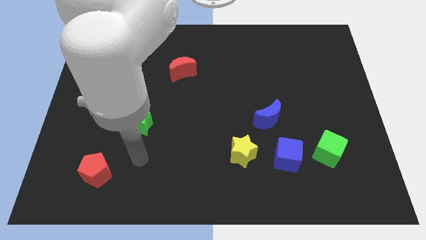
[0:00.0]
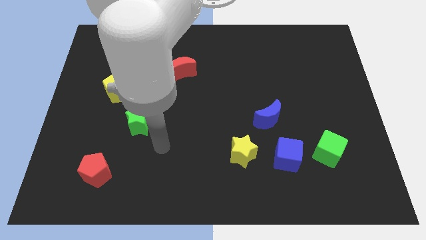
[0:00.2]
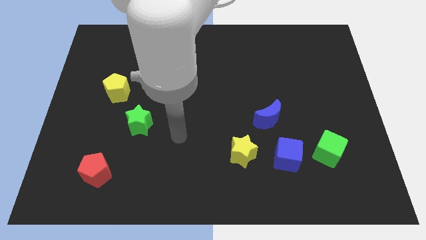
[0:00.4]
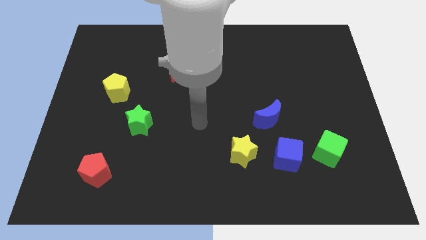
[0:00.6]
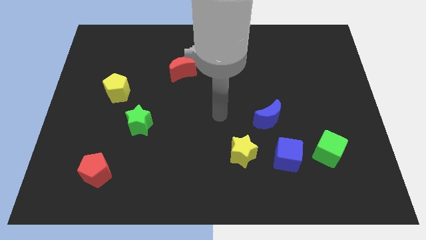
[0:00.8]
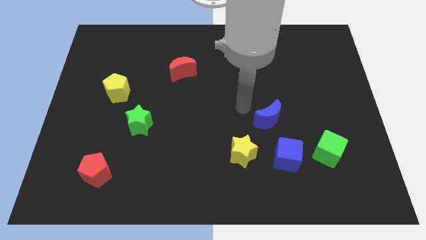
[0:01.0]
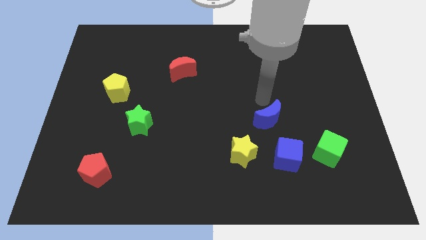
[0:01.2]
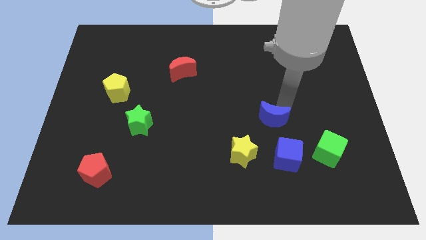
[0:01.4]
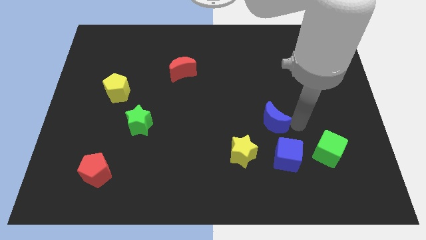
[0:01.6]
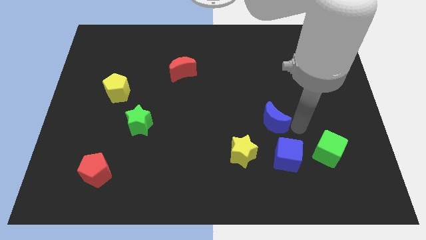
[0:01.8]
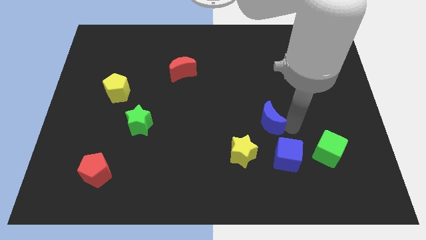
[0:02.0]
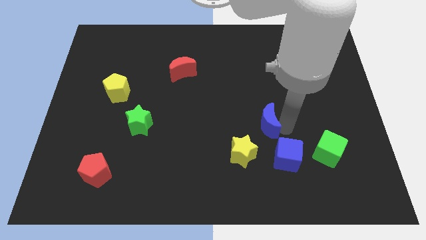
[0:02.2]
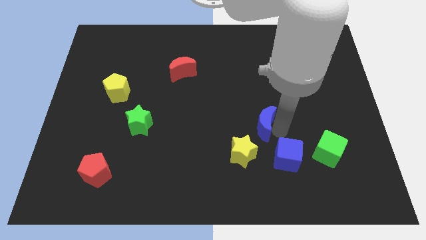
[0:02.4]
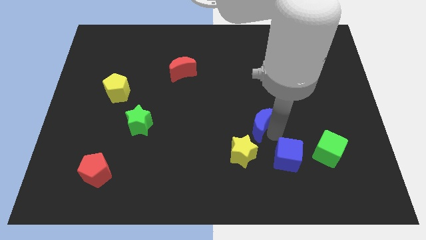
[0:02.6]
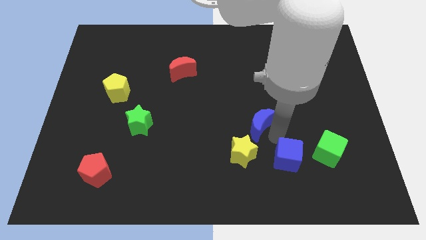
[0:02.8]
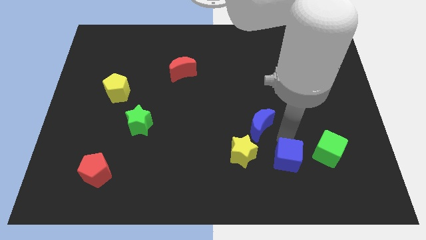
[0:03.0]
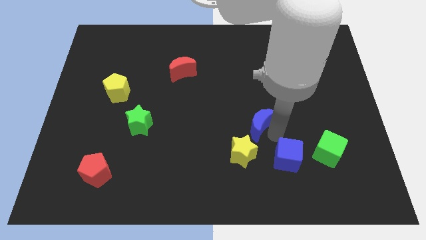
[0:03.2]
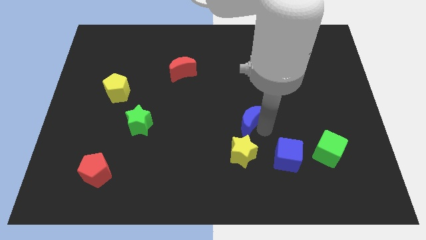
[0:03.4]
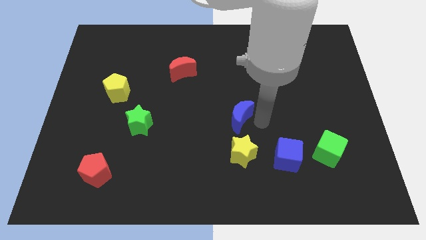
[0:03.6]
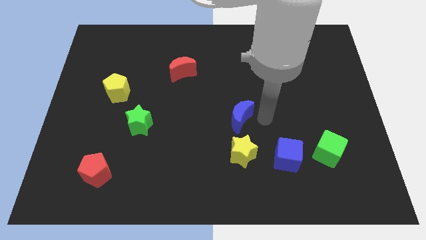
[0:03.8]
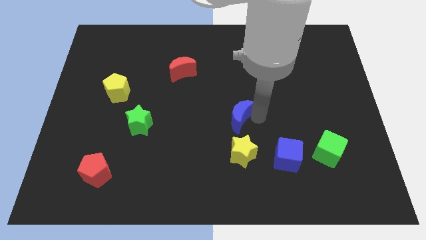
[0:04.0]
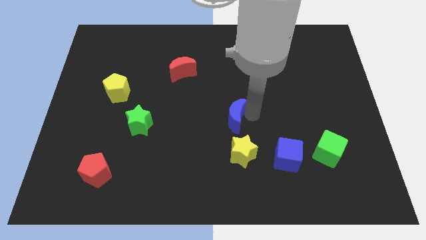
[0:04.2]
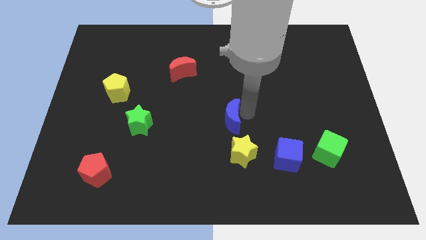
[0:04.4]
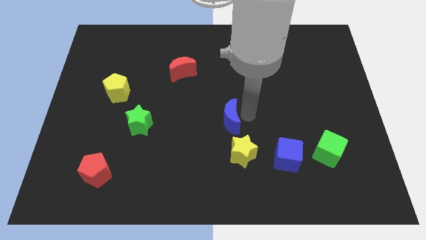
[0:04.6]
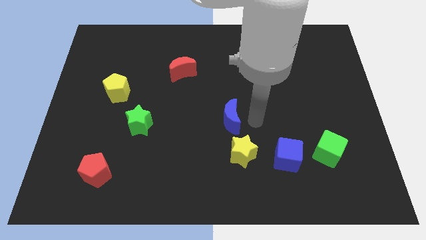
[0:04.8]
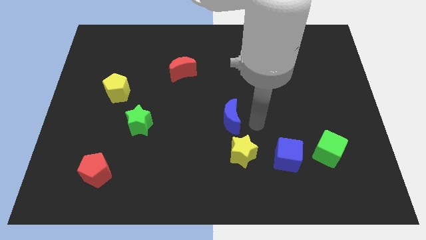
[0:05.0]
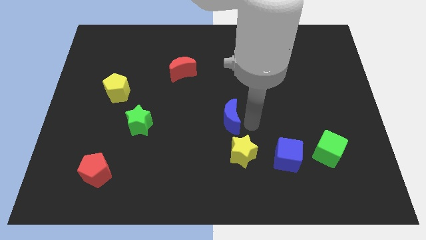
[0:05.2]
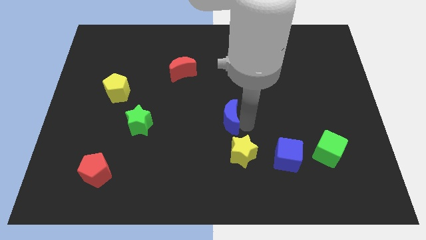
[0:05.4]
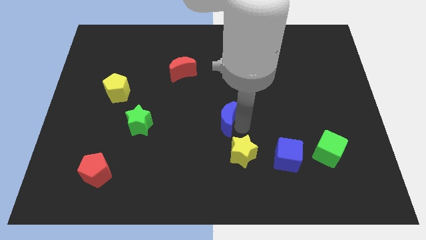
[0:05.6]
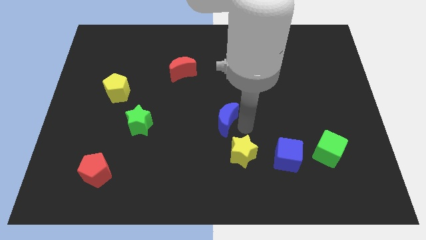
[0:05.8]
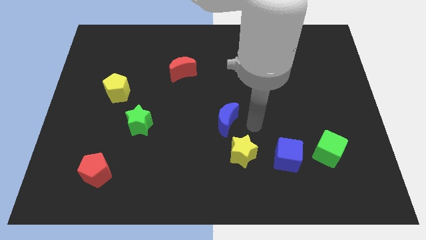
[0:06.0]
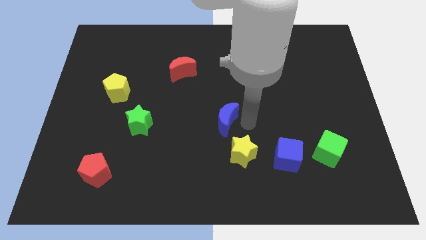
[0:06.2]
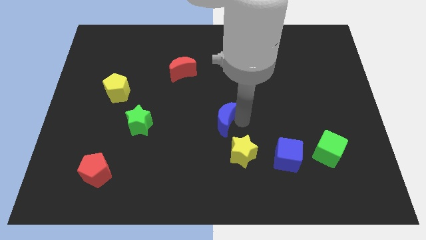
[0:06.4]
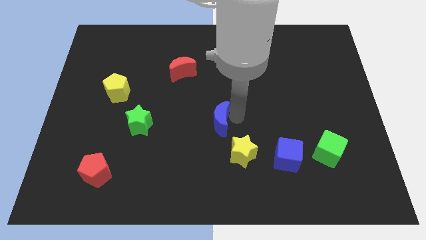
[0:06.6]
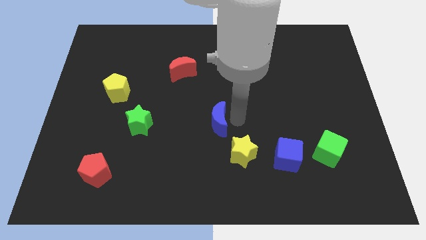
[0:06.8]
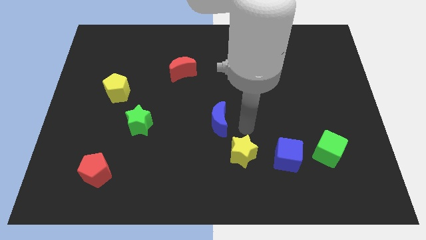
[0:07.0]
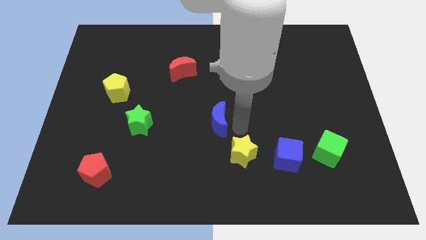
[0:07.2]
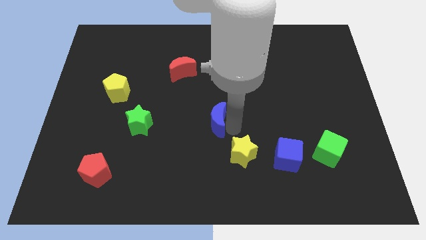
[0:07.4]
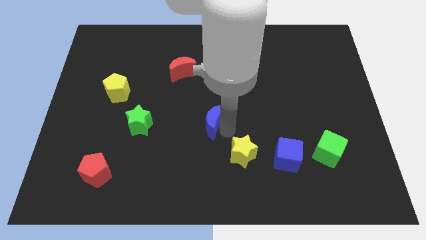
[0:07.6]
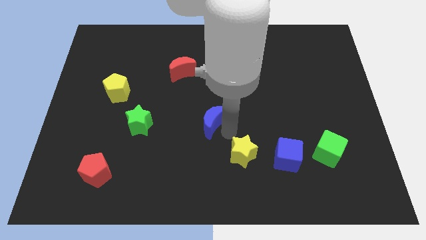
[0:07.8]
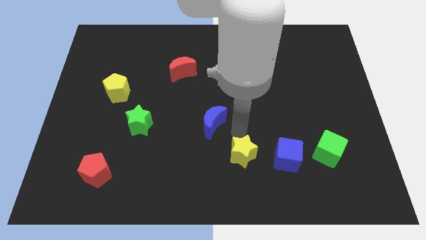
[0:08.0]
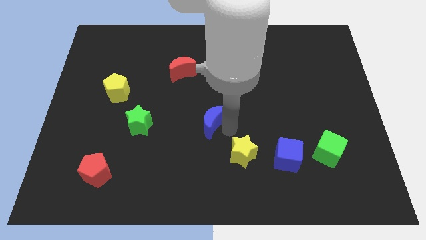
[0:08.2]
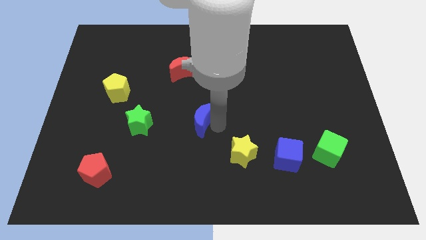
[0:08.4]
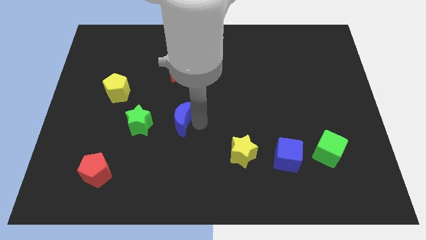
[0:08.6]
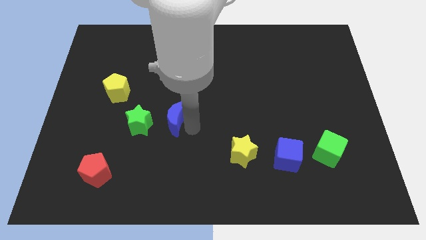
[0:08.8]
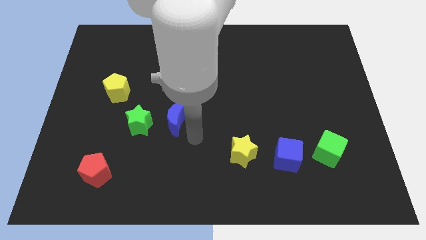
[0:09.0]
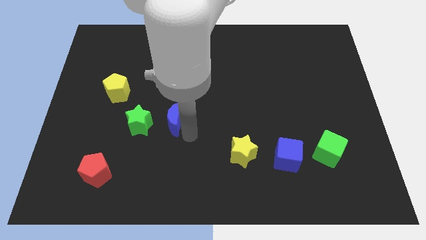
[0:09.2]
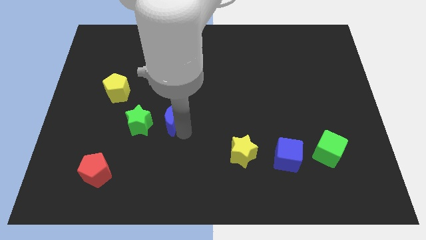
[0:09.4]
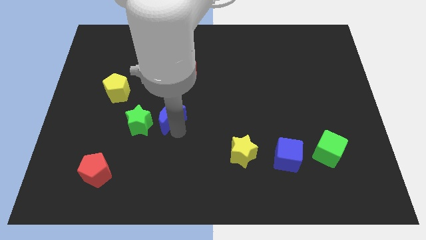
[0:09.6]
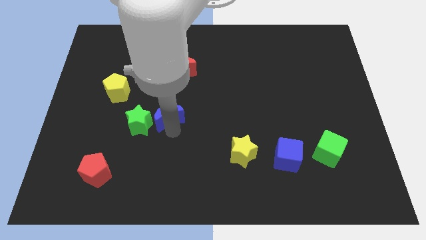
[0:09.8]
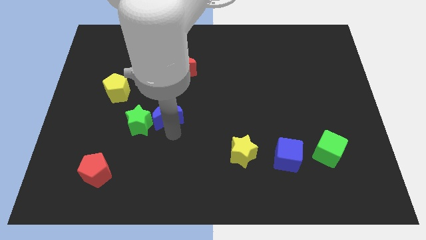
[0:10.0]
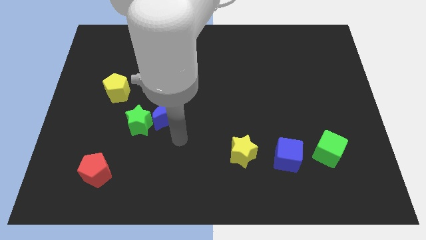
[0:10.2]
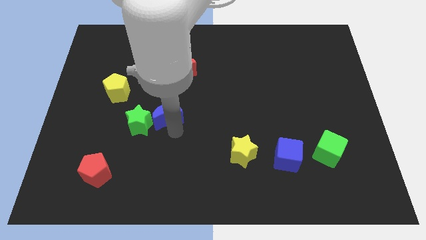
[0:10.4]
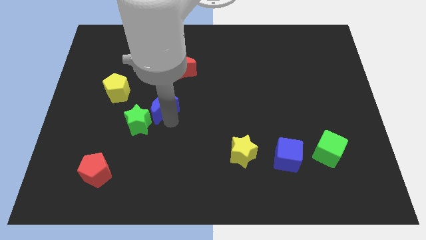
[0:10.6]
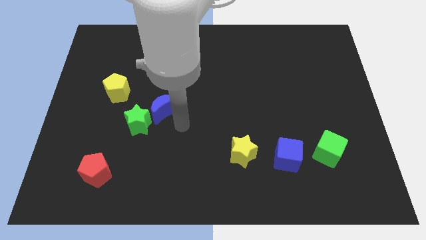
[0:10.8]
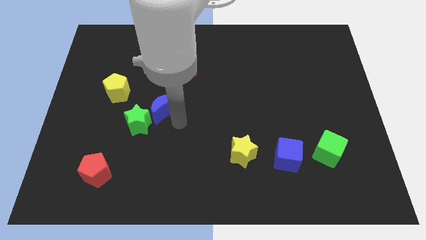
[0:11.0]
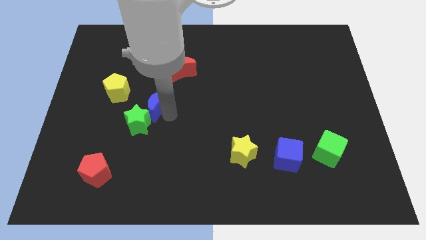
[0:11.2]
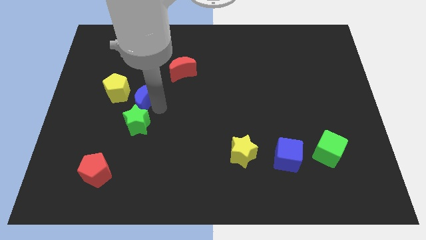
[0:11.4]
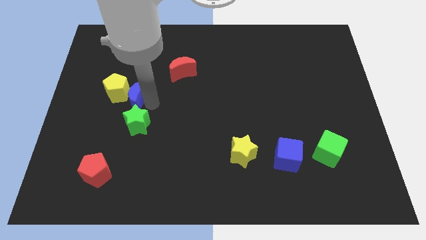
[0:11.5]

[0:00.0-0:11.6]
move the blue moon towards the yellow pentagon
